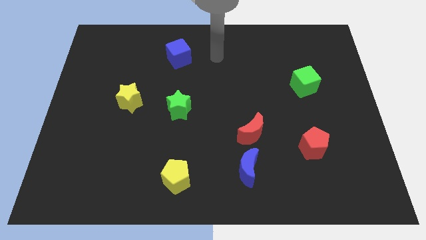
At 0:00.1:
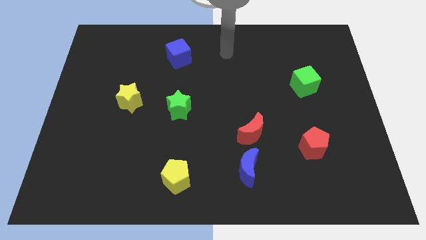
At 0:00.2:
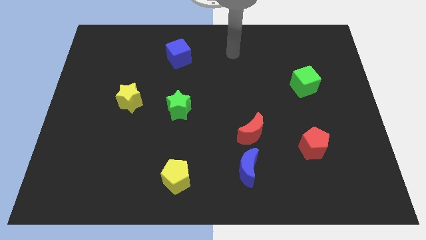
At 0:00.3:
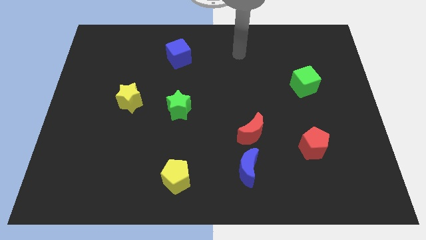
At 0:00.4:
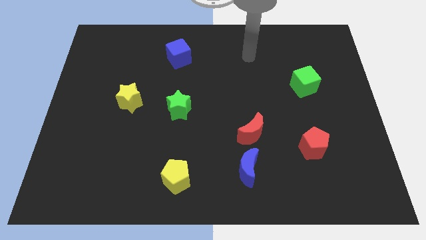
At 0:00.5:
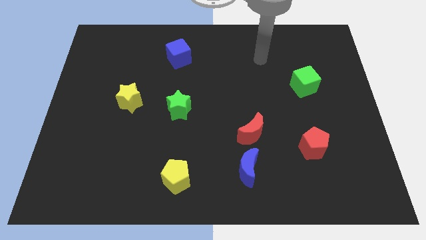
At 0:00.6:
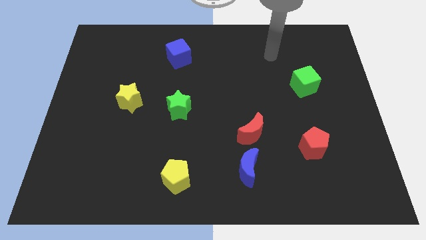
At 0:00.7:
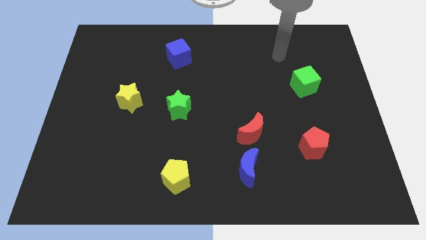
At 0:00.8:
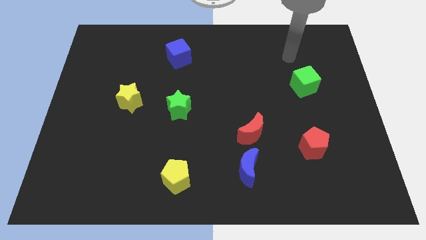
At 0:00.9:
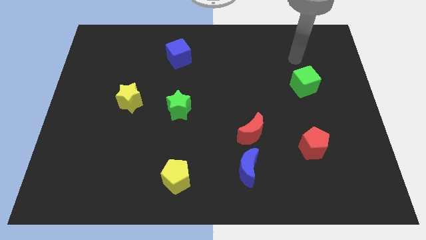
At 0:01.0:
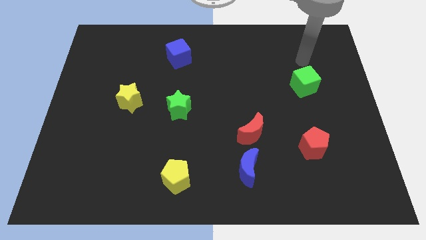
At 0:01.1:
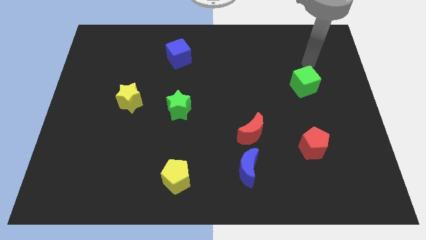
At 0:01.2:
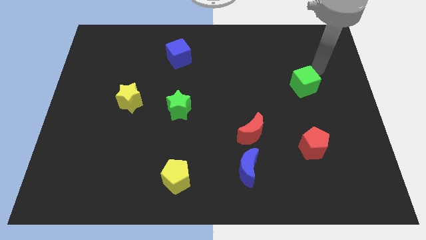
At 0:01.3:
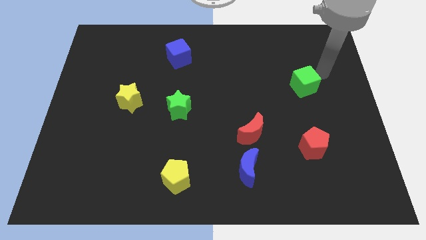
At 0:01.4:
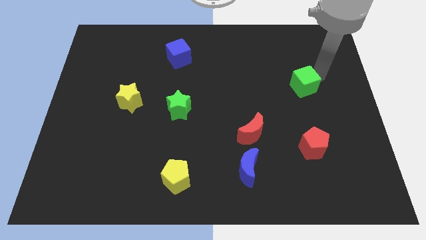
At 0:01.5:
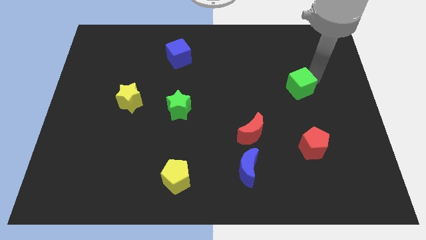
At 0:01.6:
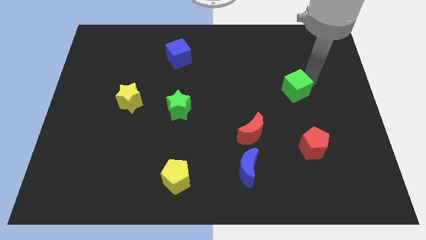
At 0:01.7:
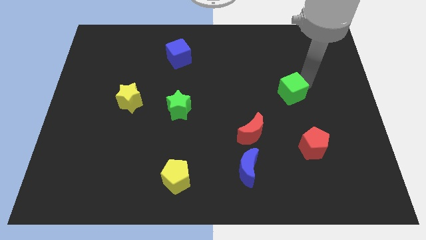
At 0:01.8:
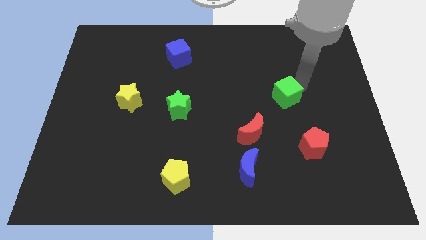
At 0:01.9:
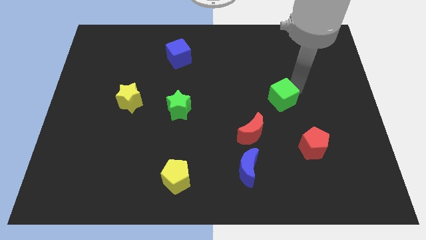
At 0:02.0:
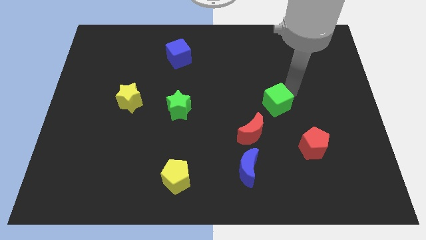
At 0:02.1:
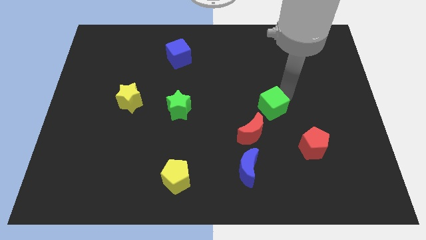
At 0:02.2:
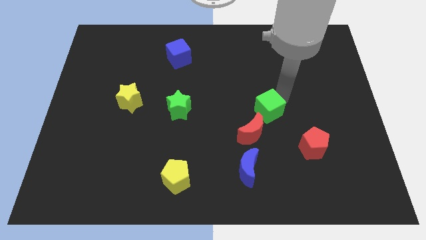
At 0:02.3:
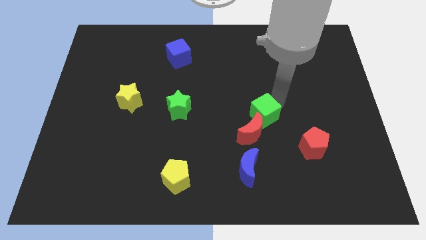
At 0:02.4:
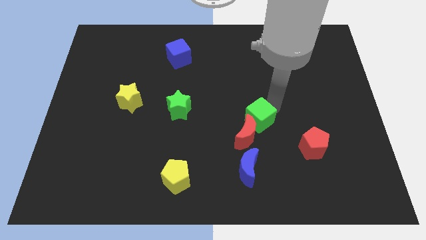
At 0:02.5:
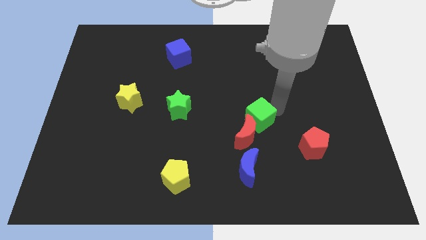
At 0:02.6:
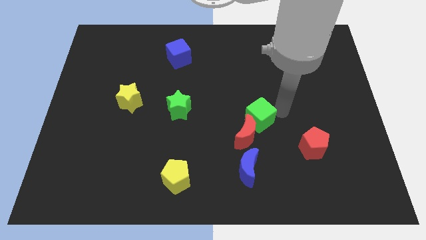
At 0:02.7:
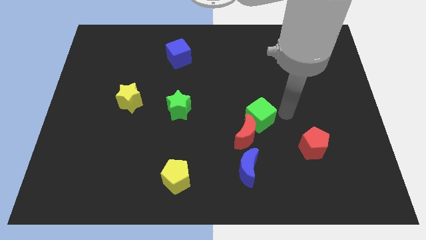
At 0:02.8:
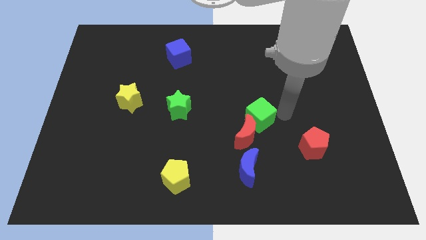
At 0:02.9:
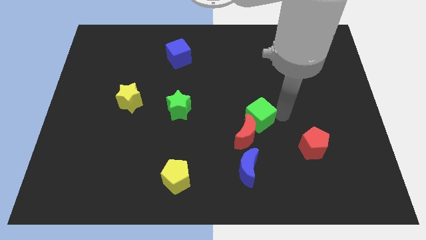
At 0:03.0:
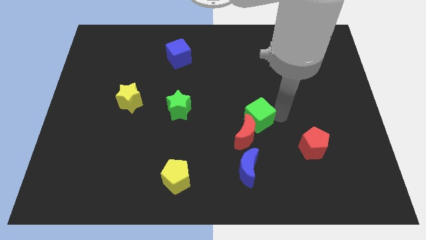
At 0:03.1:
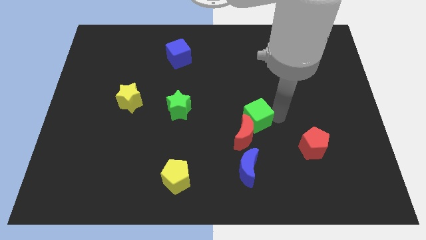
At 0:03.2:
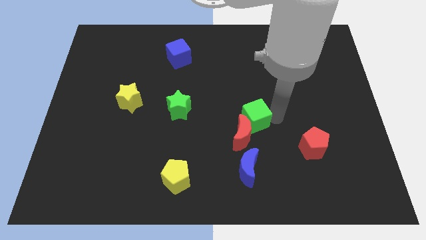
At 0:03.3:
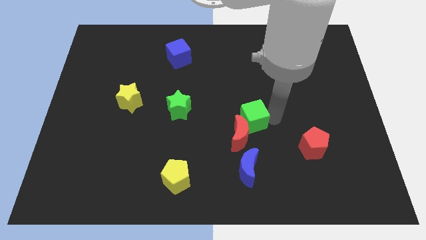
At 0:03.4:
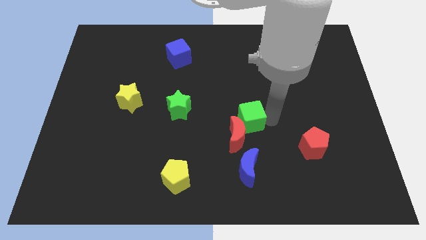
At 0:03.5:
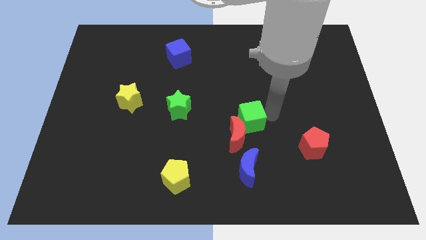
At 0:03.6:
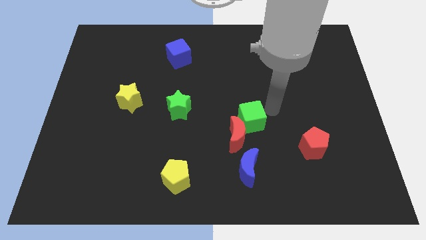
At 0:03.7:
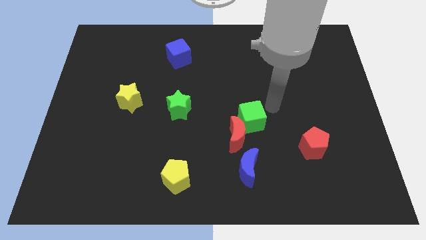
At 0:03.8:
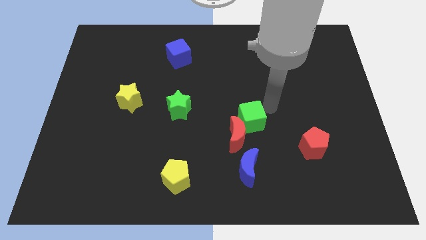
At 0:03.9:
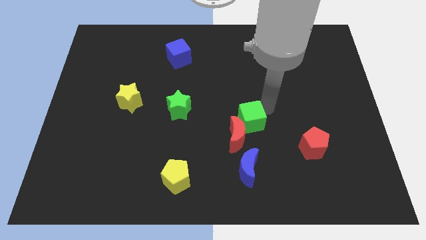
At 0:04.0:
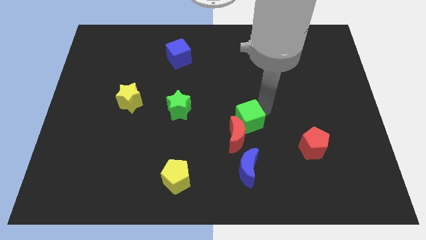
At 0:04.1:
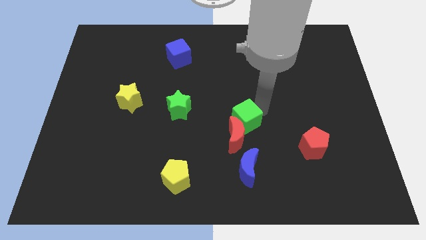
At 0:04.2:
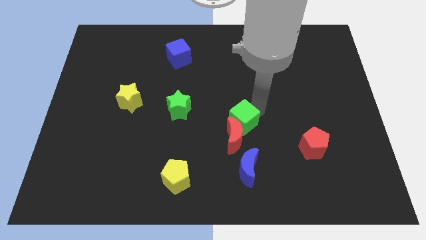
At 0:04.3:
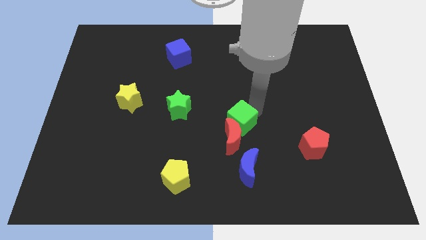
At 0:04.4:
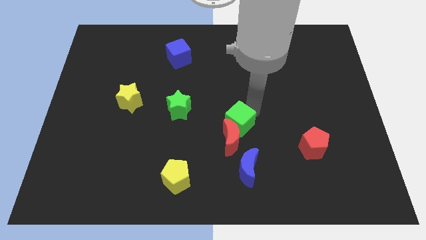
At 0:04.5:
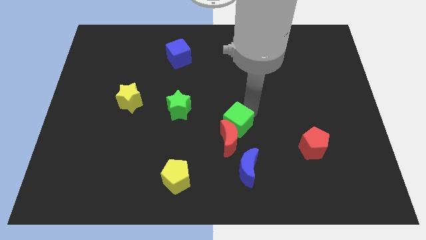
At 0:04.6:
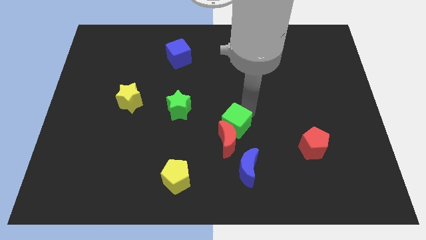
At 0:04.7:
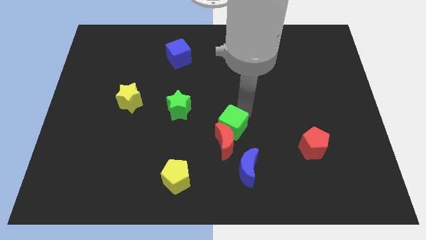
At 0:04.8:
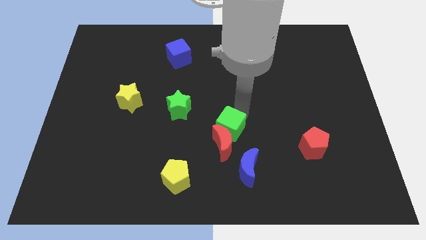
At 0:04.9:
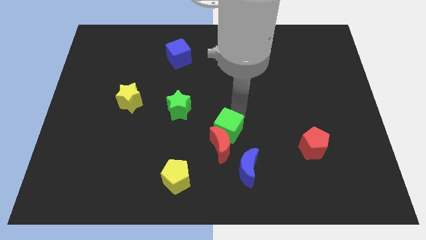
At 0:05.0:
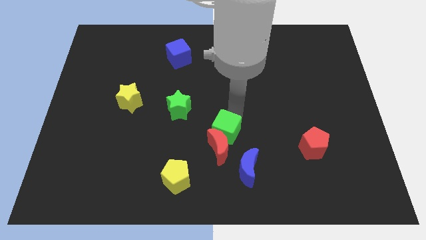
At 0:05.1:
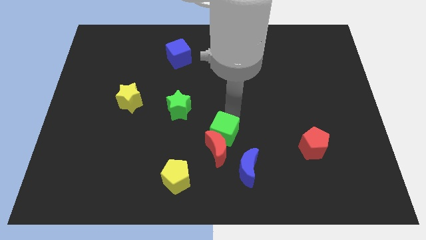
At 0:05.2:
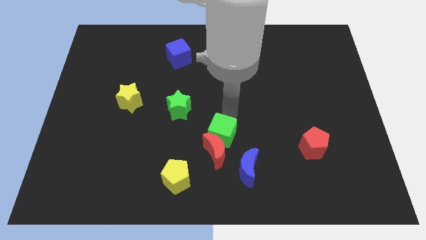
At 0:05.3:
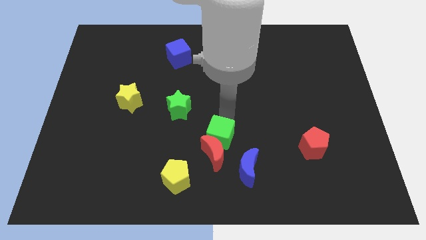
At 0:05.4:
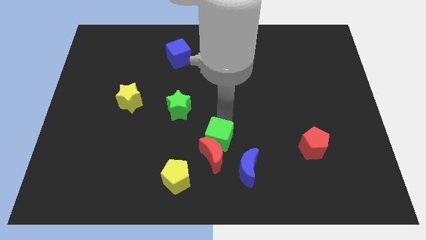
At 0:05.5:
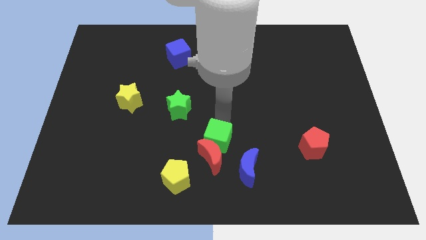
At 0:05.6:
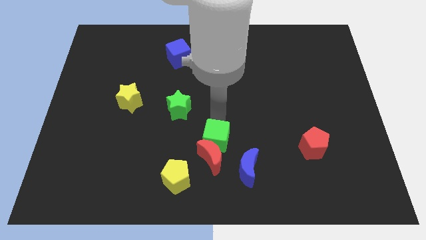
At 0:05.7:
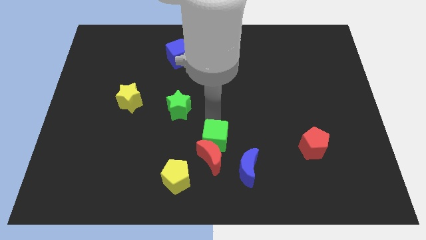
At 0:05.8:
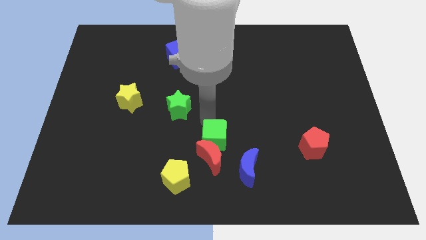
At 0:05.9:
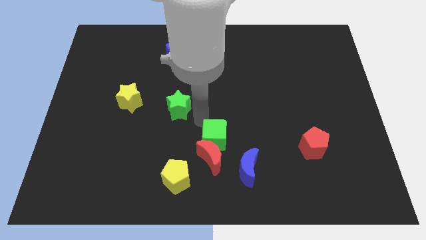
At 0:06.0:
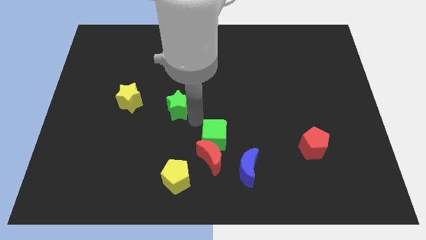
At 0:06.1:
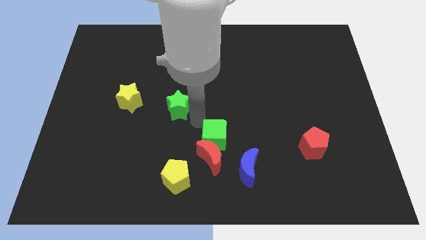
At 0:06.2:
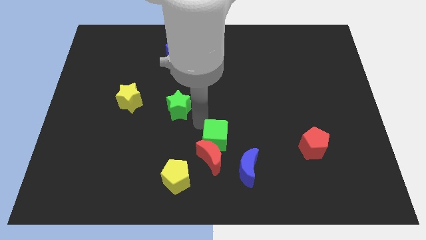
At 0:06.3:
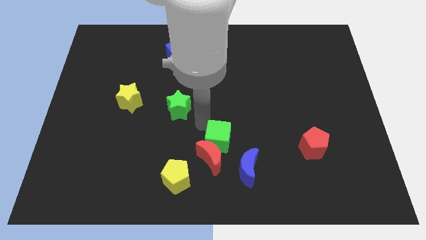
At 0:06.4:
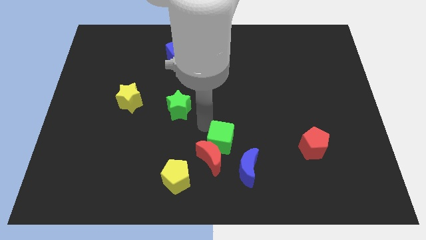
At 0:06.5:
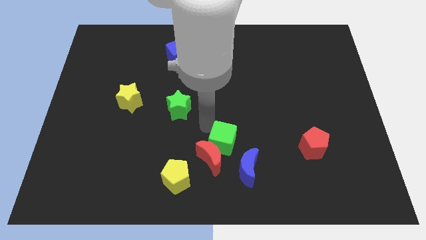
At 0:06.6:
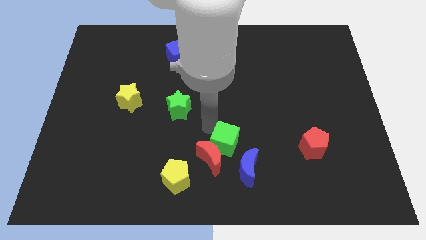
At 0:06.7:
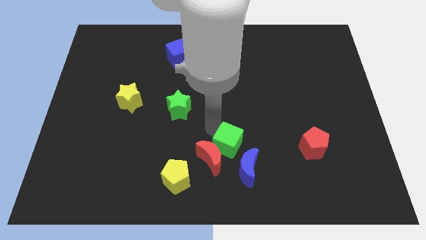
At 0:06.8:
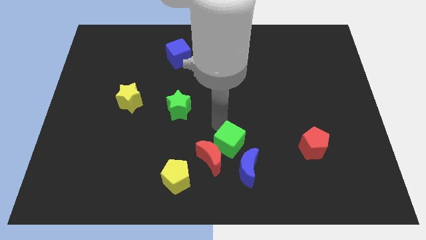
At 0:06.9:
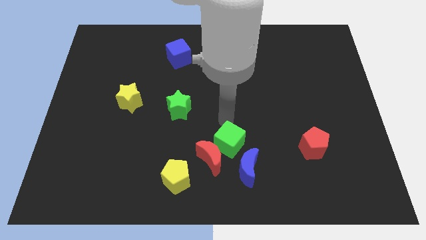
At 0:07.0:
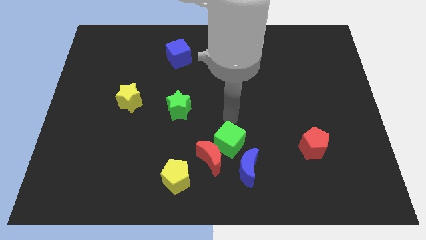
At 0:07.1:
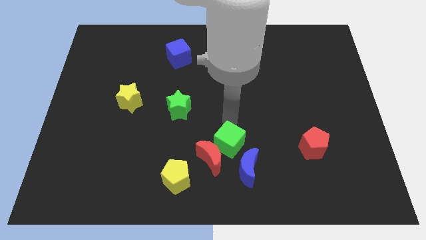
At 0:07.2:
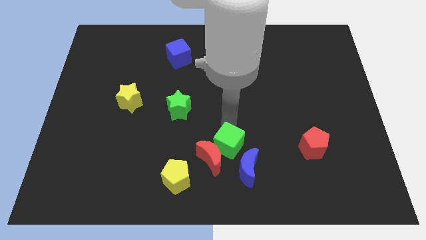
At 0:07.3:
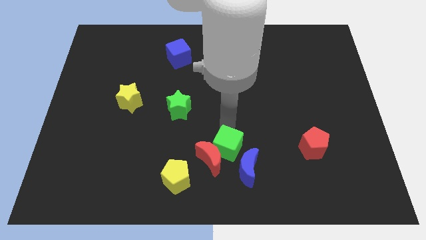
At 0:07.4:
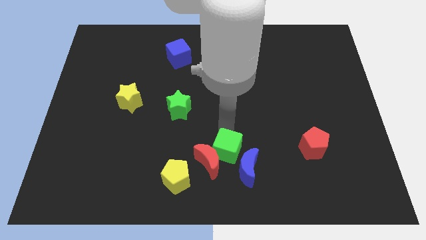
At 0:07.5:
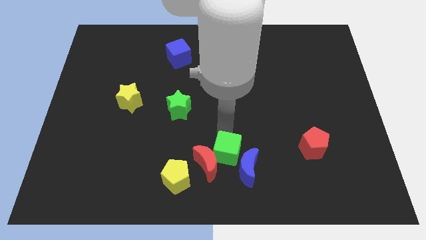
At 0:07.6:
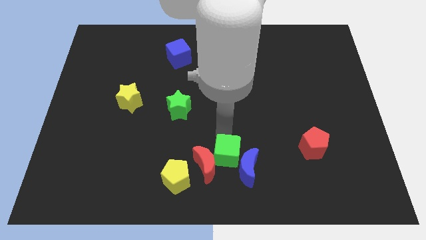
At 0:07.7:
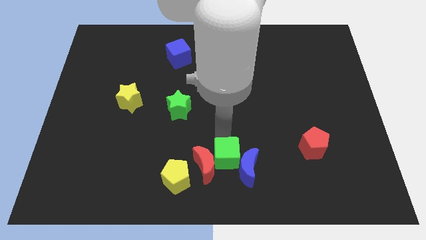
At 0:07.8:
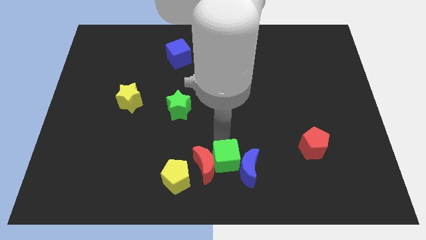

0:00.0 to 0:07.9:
slide the green cube just right of the yellow pentagon

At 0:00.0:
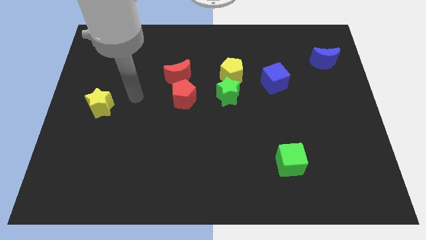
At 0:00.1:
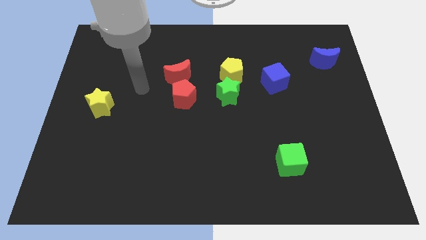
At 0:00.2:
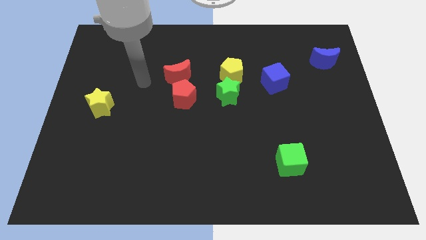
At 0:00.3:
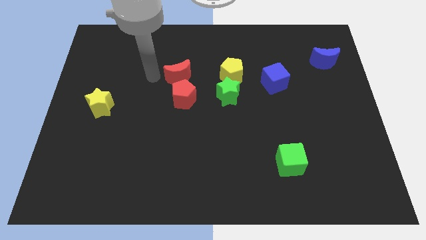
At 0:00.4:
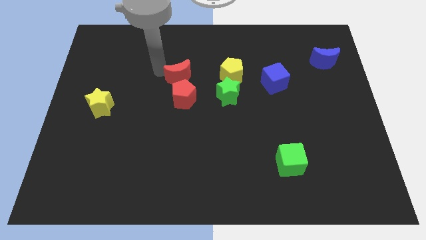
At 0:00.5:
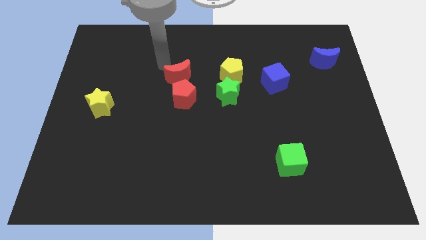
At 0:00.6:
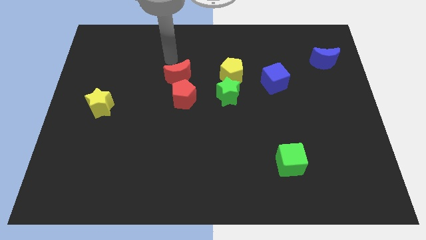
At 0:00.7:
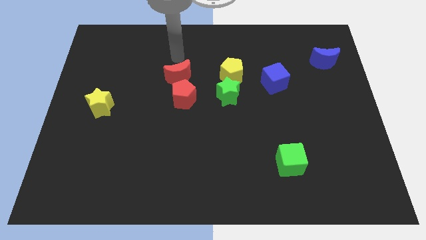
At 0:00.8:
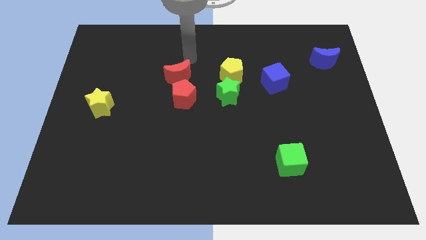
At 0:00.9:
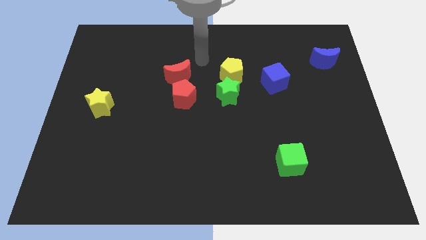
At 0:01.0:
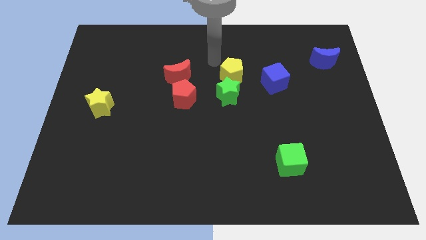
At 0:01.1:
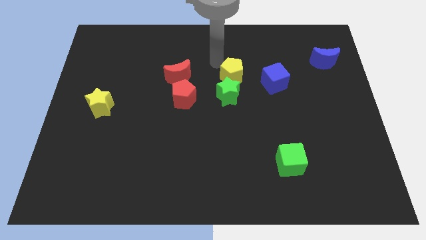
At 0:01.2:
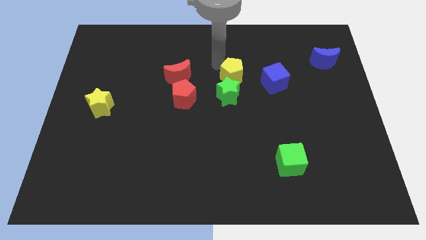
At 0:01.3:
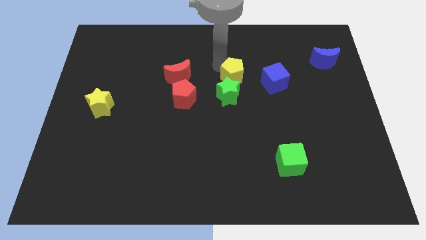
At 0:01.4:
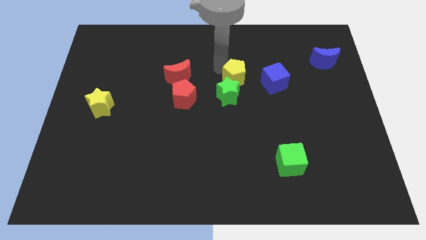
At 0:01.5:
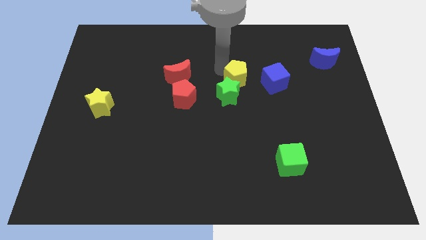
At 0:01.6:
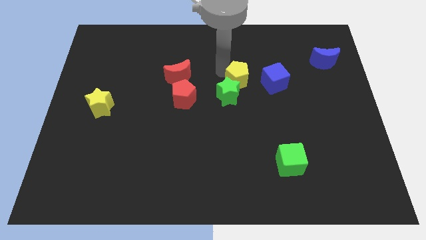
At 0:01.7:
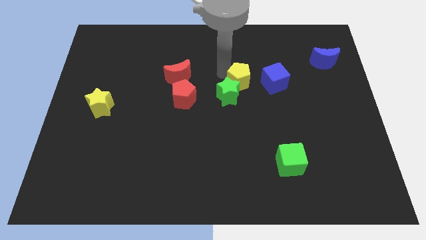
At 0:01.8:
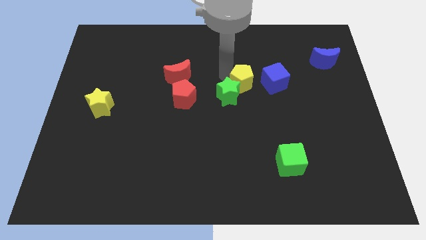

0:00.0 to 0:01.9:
push the yellow pentagon to the right side of the green star
